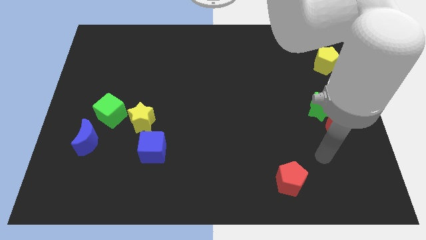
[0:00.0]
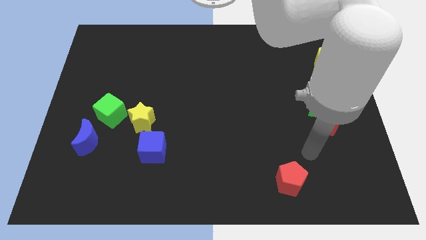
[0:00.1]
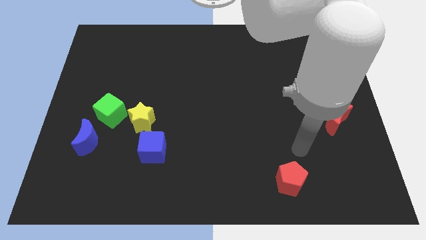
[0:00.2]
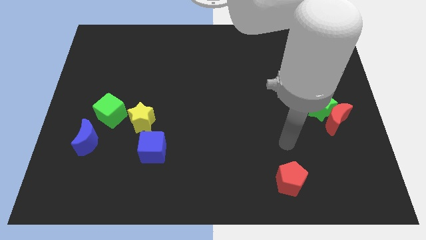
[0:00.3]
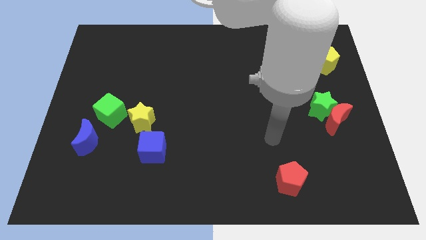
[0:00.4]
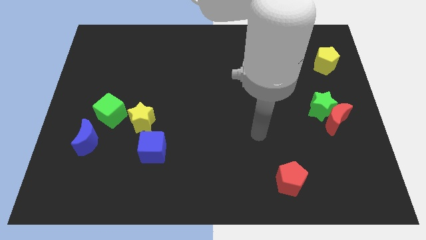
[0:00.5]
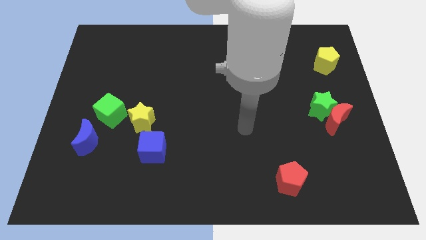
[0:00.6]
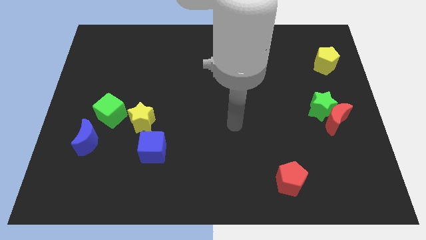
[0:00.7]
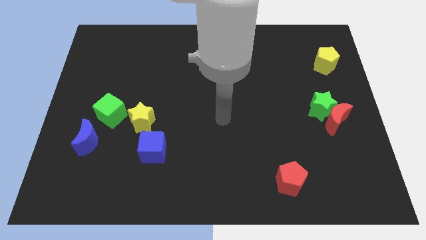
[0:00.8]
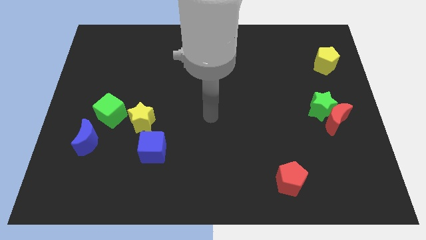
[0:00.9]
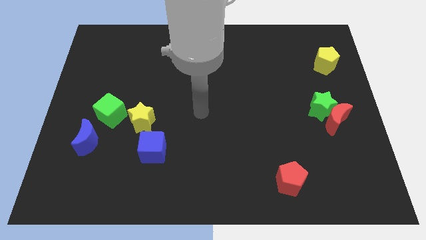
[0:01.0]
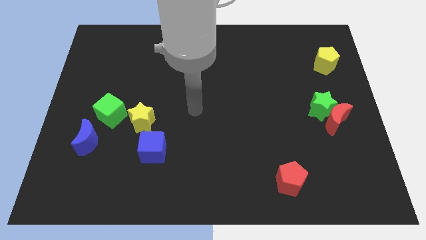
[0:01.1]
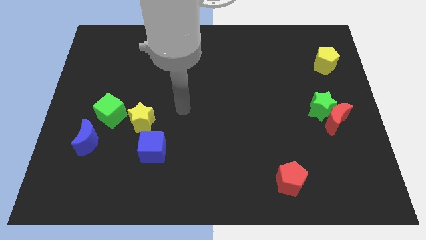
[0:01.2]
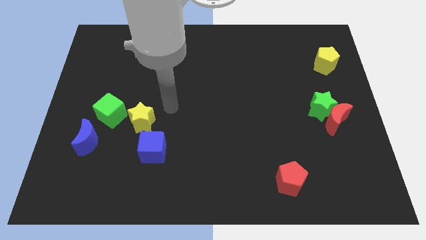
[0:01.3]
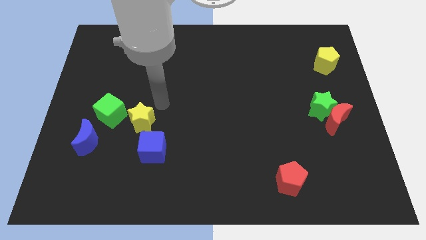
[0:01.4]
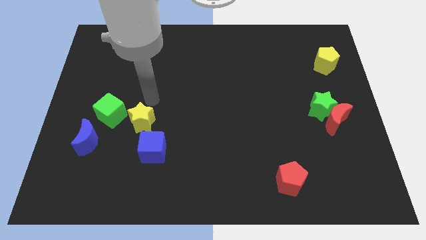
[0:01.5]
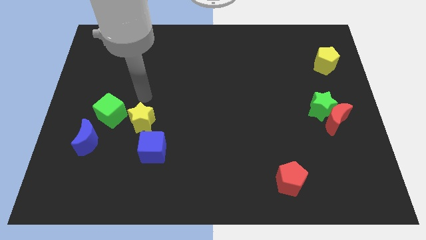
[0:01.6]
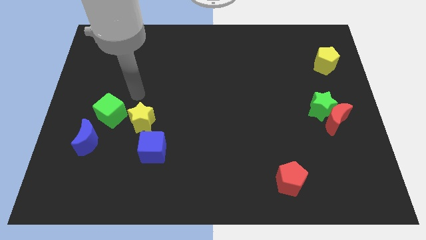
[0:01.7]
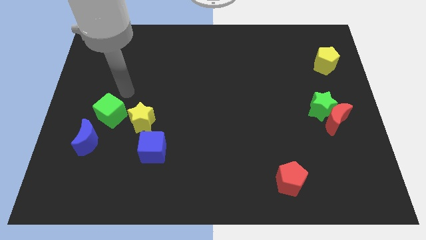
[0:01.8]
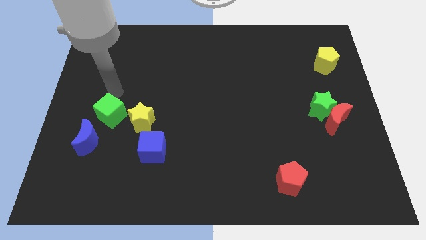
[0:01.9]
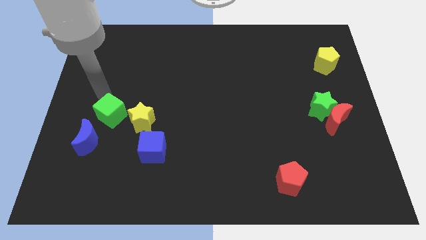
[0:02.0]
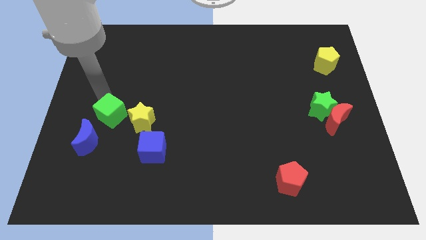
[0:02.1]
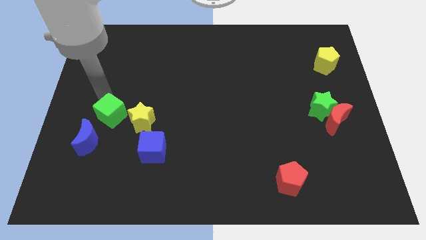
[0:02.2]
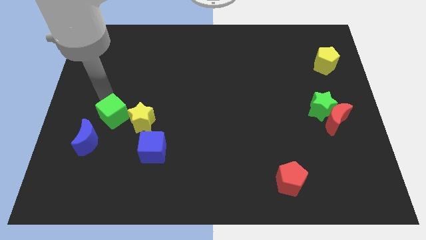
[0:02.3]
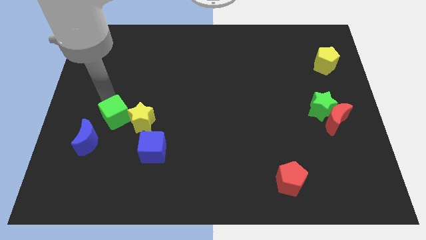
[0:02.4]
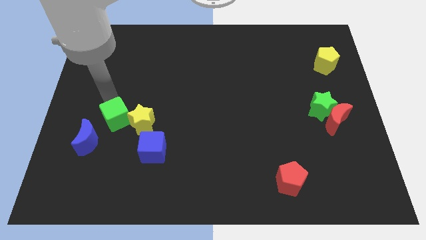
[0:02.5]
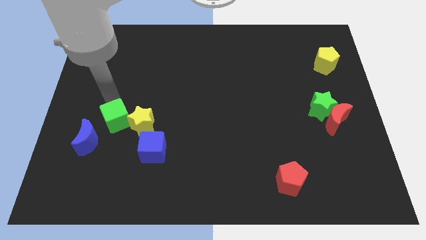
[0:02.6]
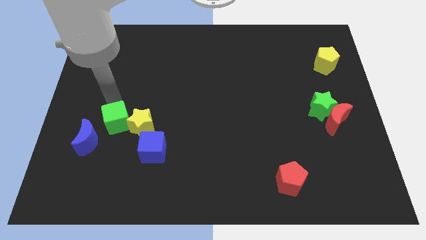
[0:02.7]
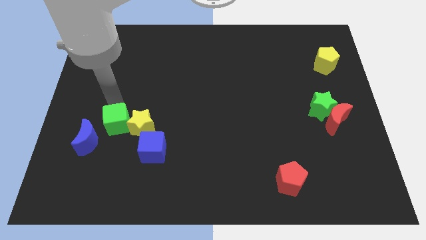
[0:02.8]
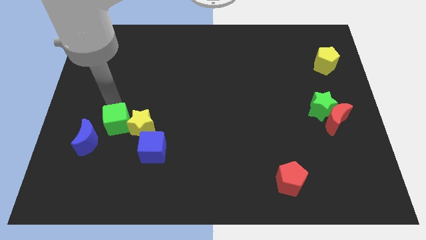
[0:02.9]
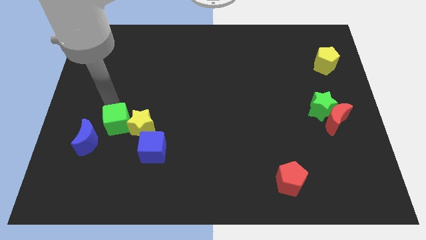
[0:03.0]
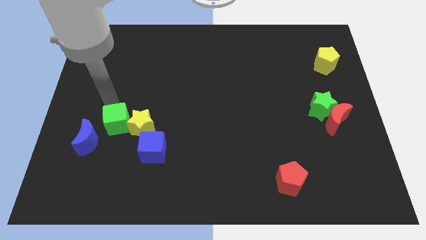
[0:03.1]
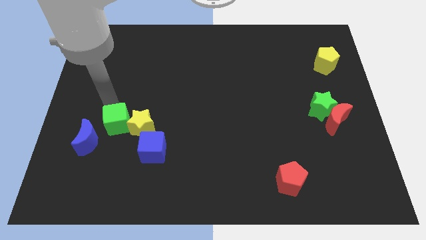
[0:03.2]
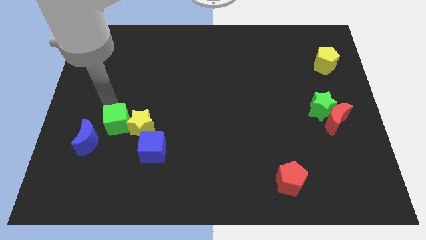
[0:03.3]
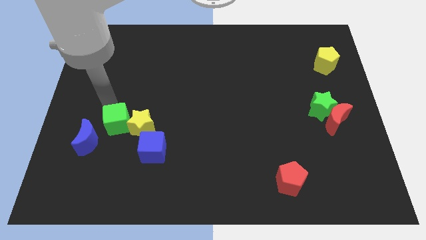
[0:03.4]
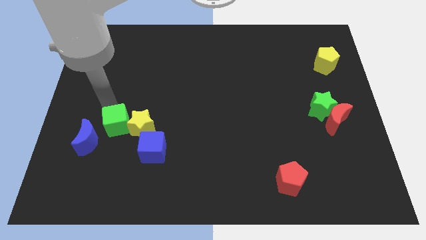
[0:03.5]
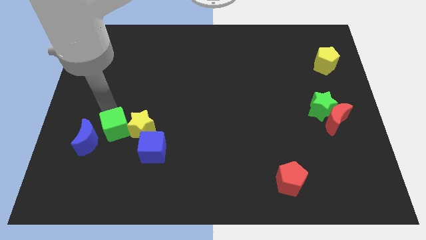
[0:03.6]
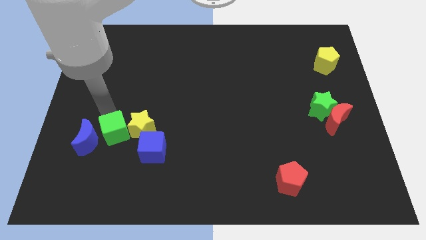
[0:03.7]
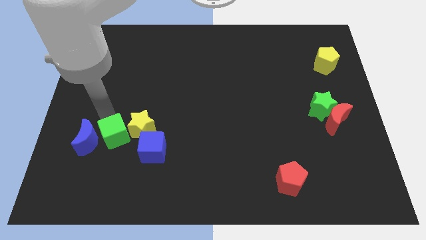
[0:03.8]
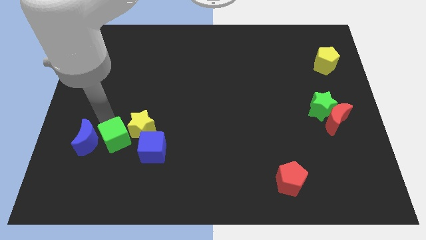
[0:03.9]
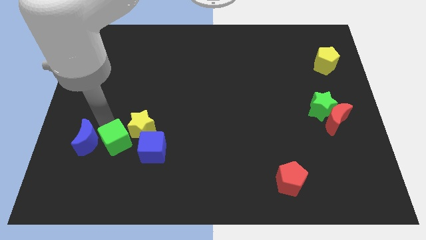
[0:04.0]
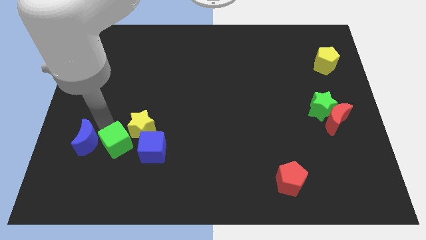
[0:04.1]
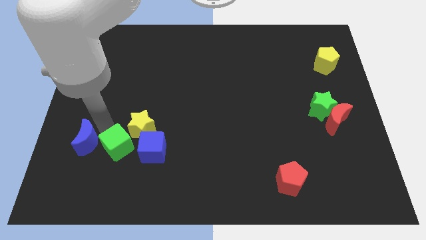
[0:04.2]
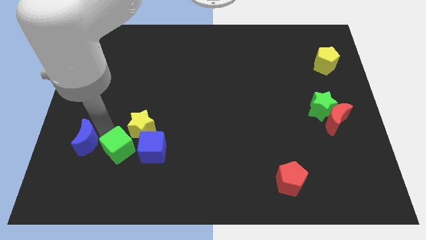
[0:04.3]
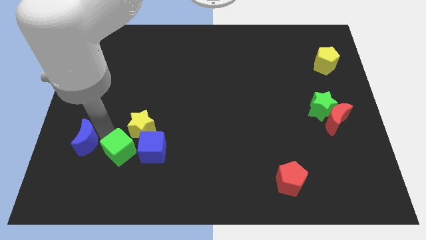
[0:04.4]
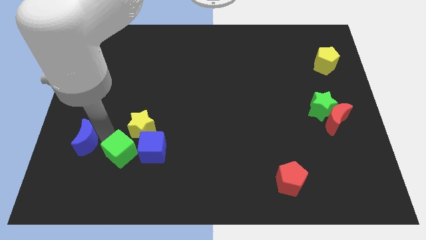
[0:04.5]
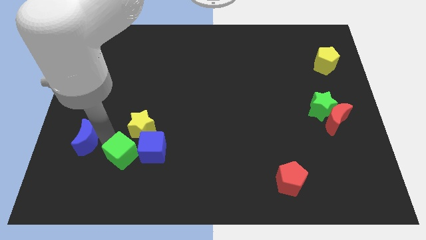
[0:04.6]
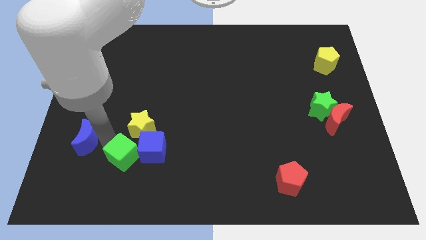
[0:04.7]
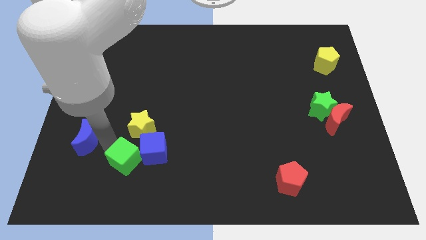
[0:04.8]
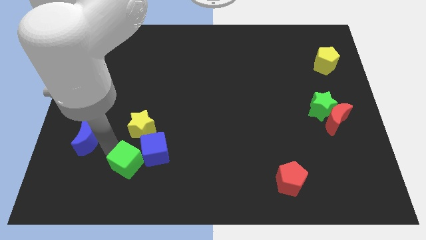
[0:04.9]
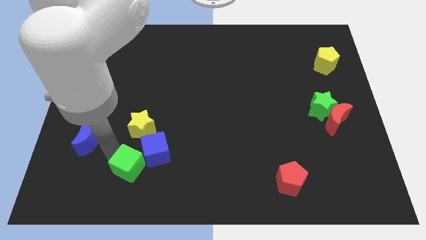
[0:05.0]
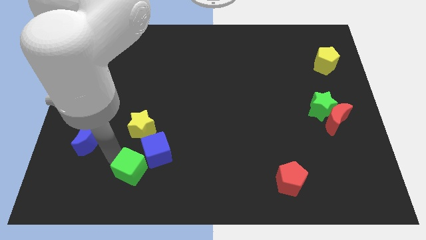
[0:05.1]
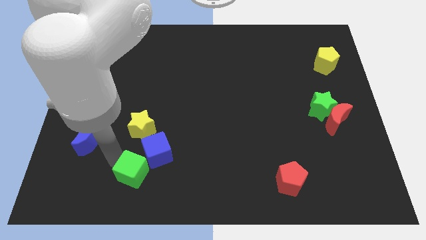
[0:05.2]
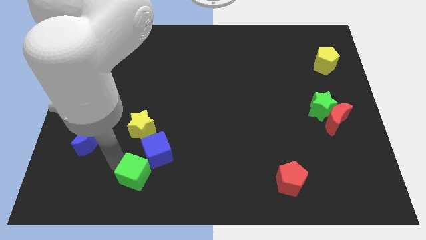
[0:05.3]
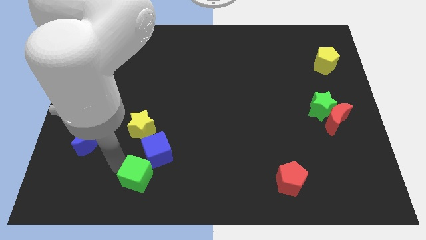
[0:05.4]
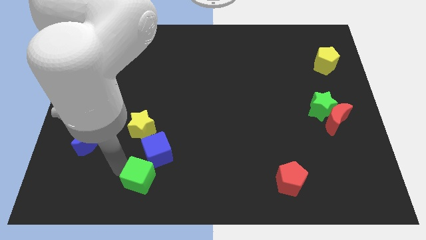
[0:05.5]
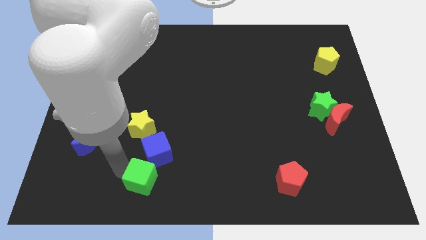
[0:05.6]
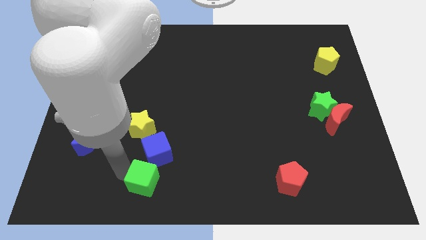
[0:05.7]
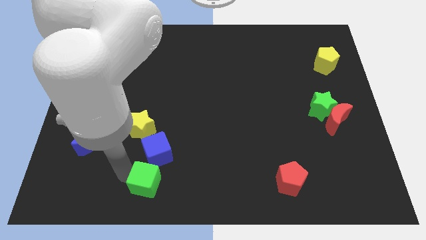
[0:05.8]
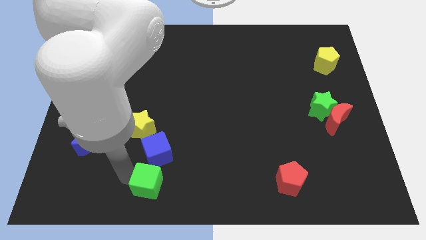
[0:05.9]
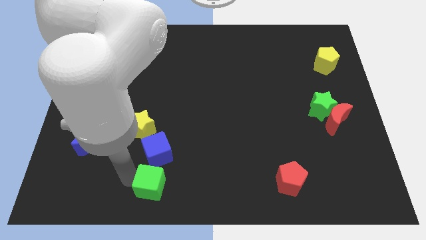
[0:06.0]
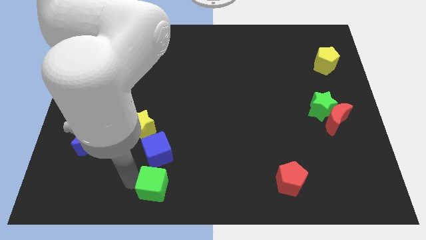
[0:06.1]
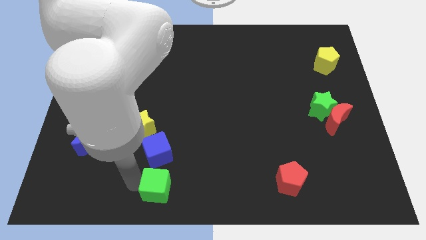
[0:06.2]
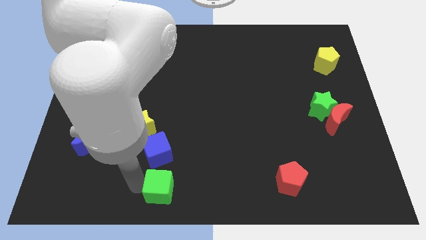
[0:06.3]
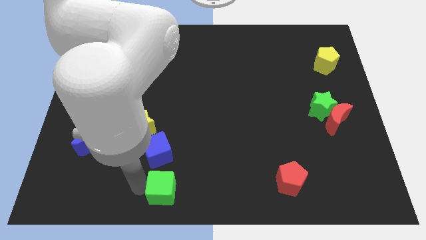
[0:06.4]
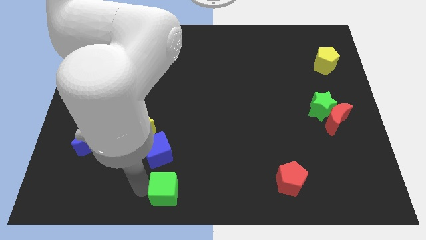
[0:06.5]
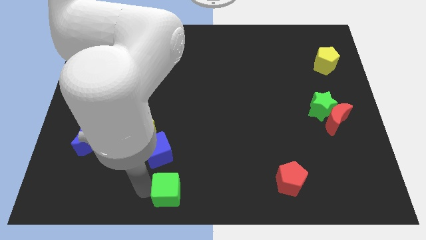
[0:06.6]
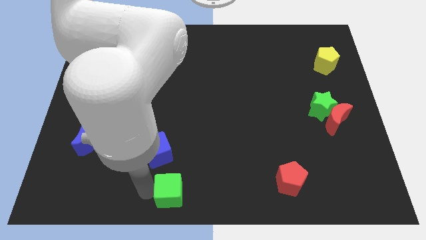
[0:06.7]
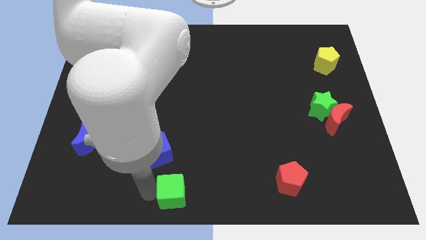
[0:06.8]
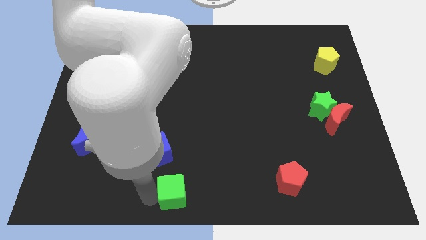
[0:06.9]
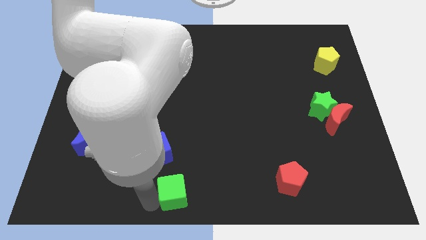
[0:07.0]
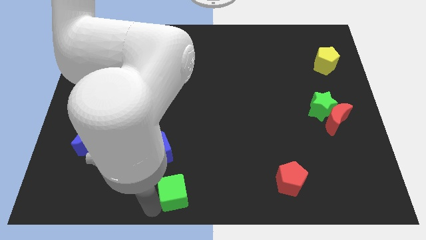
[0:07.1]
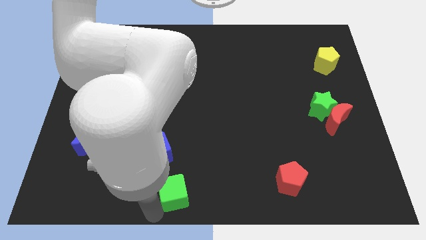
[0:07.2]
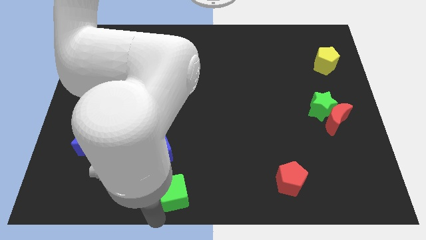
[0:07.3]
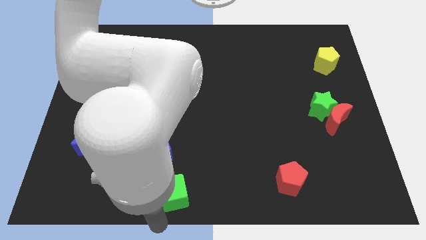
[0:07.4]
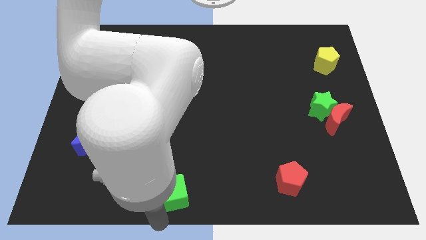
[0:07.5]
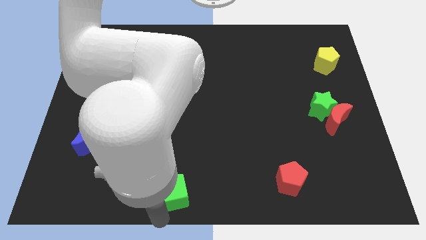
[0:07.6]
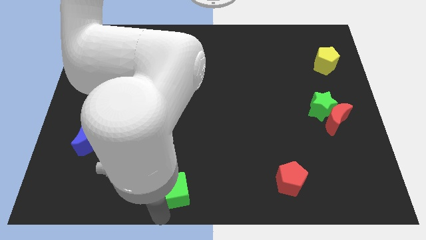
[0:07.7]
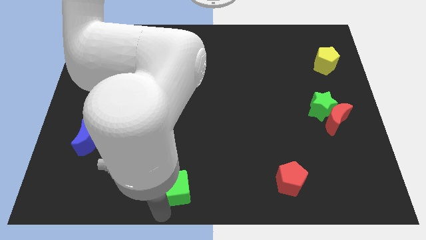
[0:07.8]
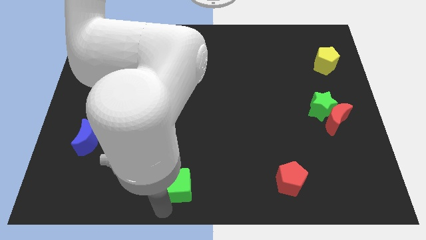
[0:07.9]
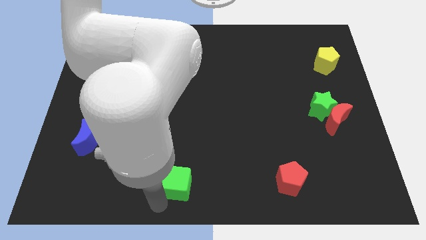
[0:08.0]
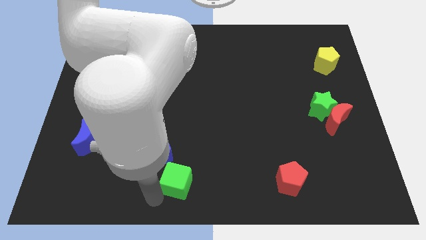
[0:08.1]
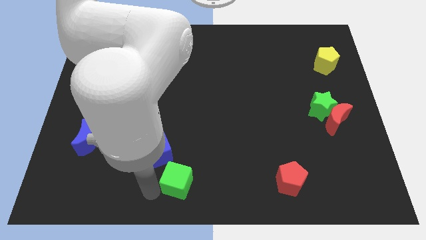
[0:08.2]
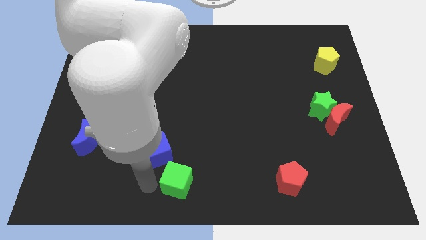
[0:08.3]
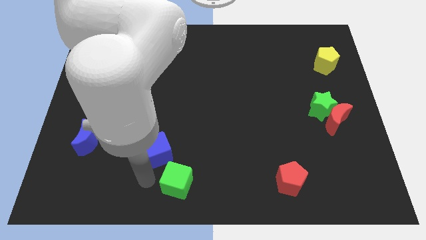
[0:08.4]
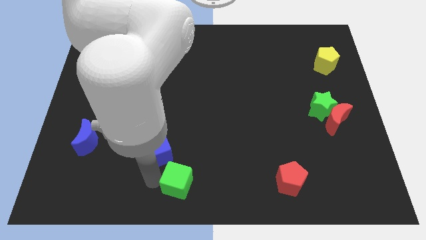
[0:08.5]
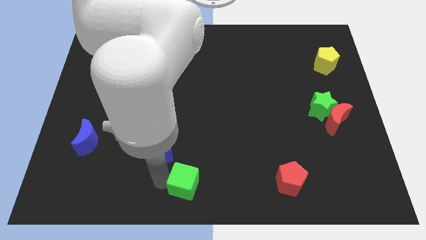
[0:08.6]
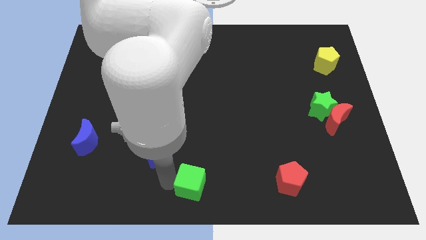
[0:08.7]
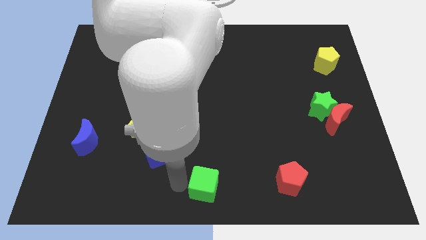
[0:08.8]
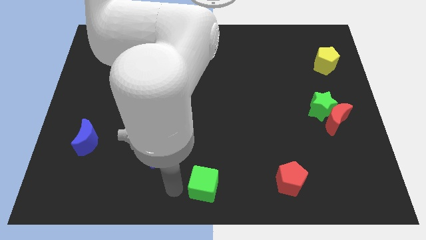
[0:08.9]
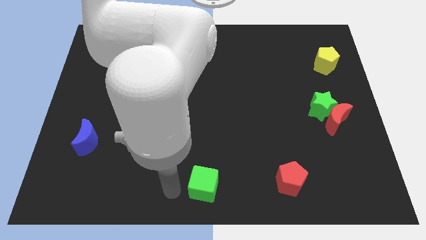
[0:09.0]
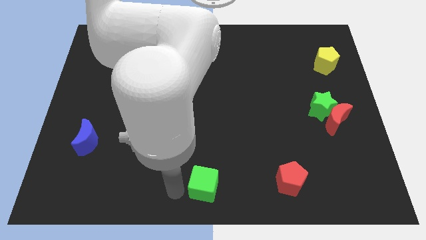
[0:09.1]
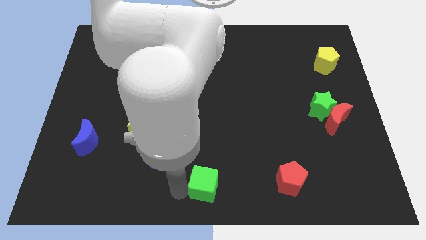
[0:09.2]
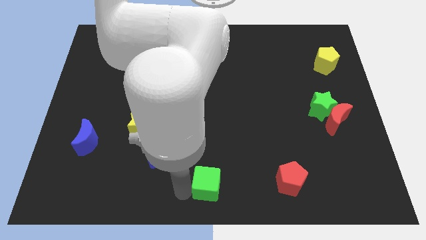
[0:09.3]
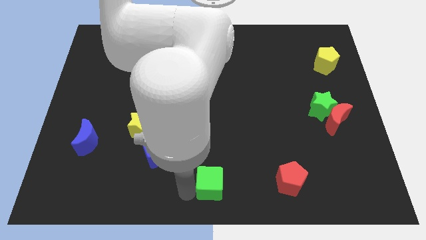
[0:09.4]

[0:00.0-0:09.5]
put the green cube to the left of the red pentagon
